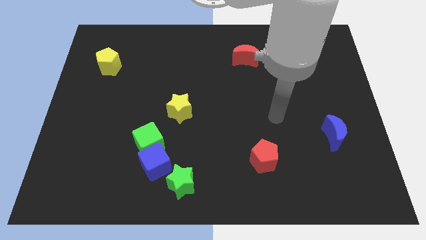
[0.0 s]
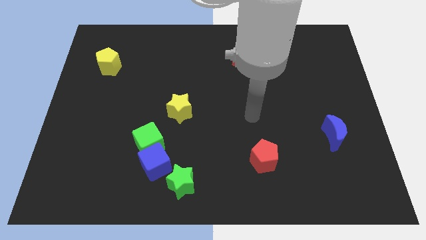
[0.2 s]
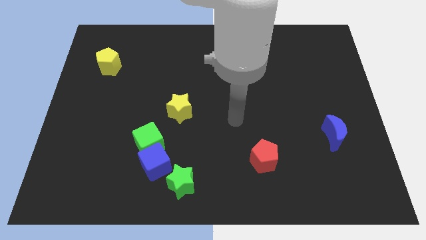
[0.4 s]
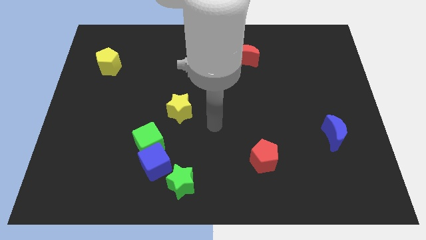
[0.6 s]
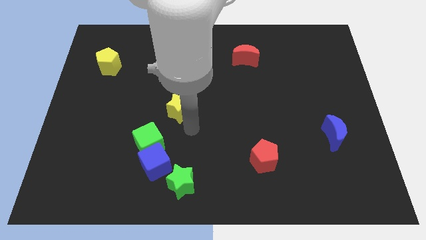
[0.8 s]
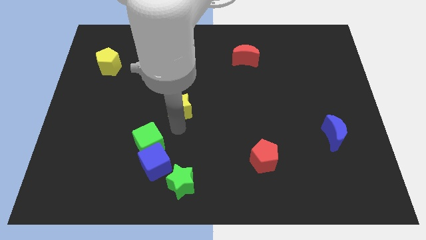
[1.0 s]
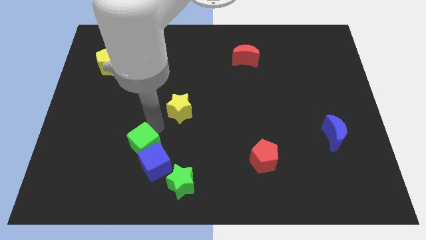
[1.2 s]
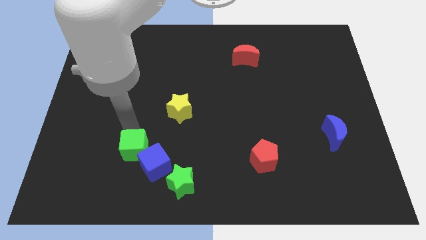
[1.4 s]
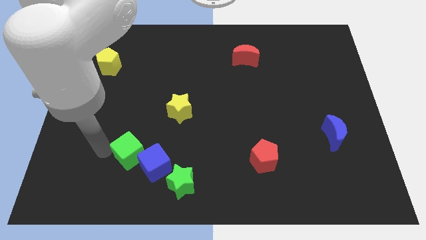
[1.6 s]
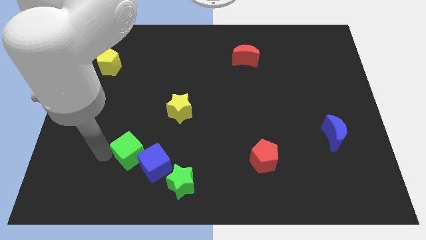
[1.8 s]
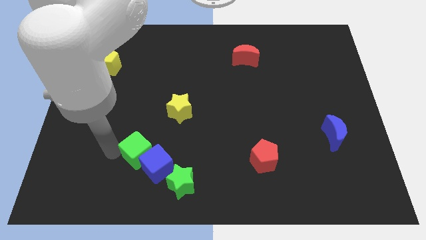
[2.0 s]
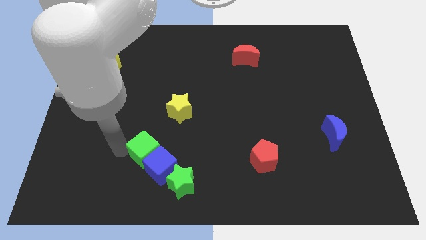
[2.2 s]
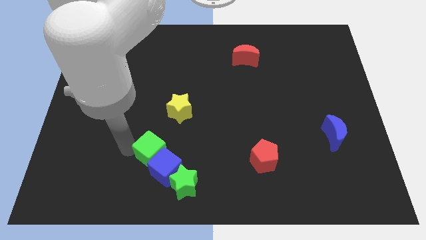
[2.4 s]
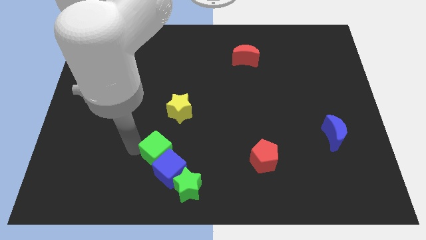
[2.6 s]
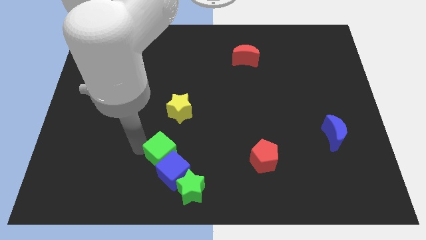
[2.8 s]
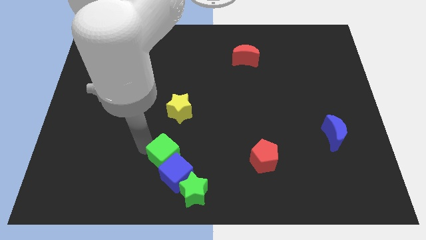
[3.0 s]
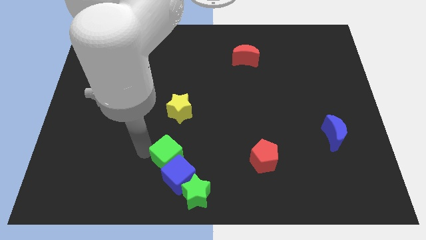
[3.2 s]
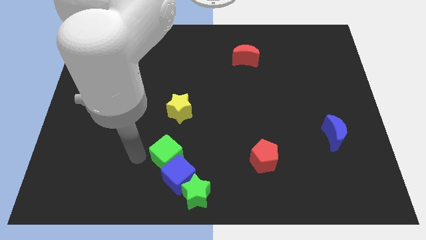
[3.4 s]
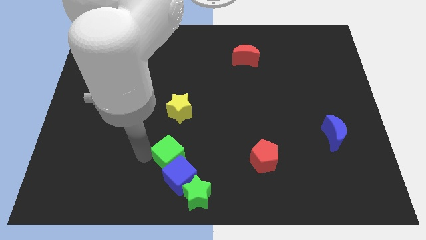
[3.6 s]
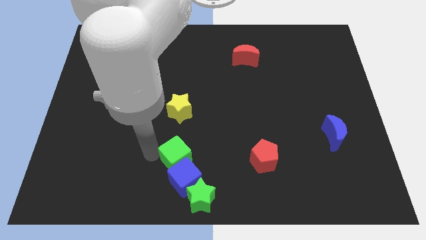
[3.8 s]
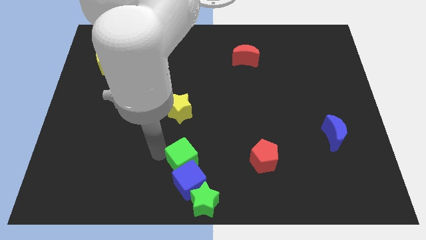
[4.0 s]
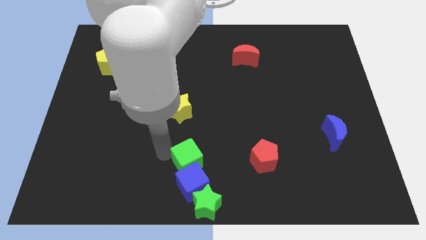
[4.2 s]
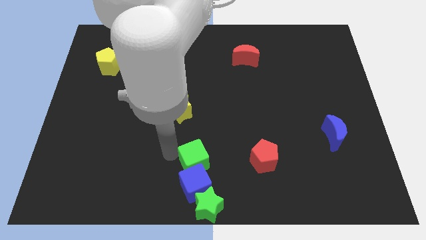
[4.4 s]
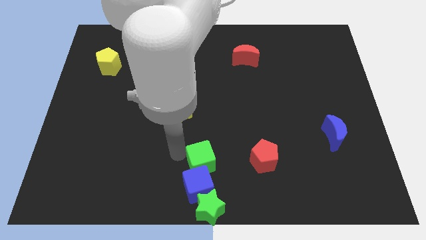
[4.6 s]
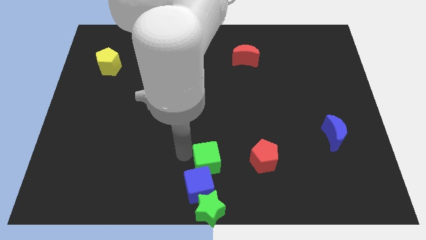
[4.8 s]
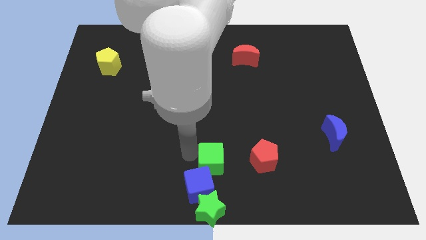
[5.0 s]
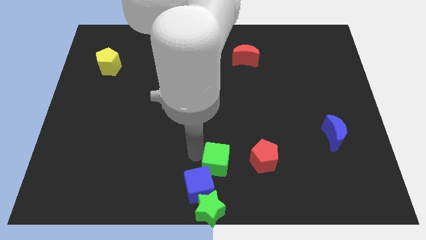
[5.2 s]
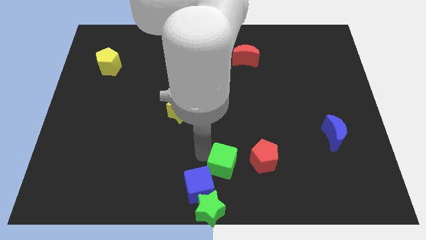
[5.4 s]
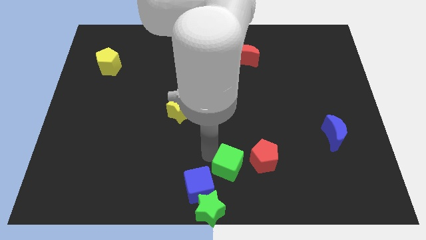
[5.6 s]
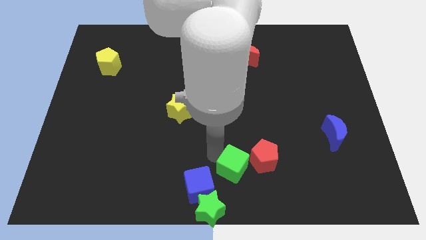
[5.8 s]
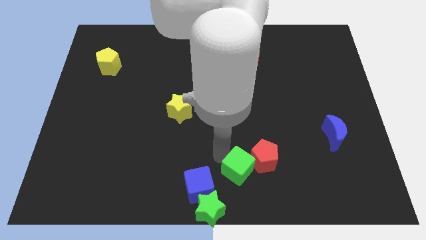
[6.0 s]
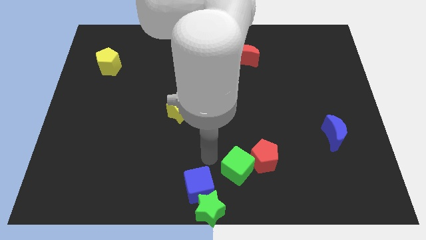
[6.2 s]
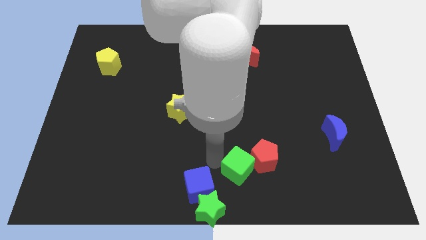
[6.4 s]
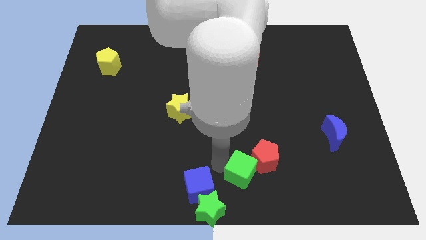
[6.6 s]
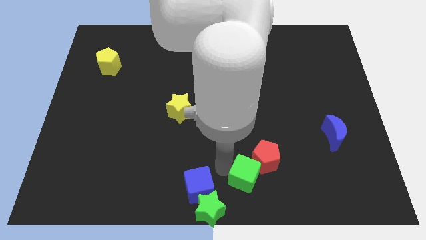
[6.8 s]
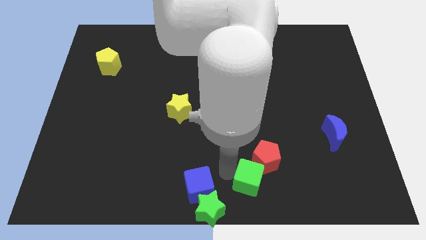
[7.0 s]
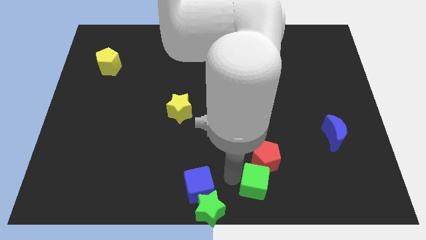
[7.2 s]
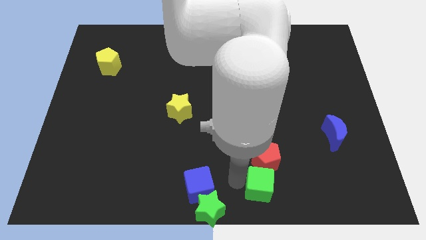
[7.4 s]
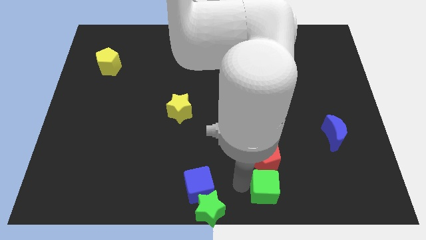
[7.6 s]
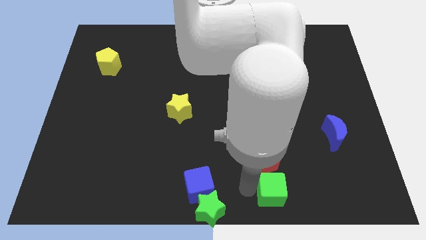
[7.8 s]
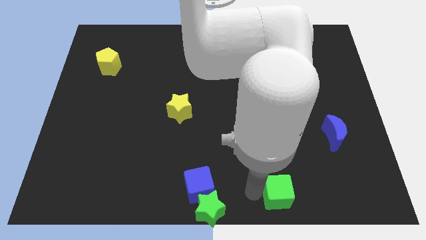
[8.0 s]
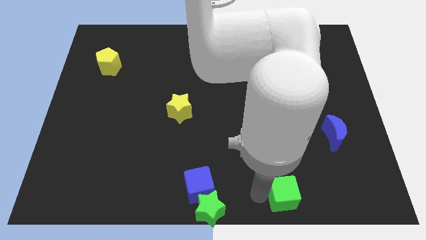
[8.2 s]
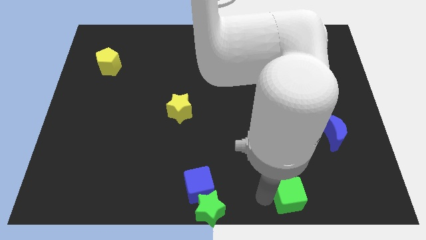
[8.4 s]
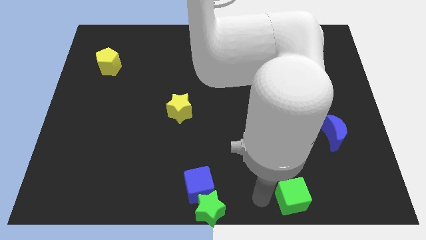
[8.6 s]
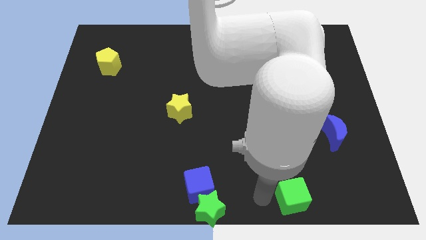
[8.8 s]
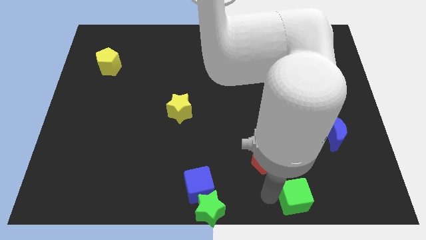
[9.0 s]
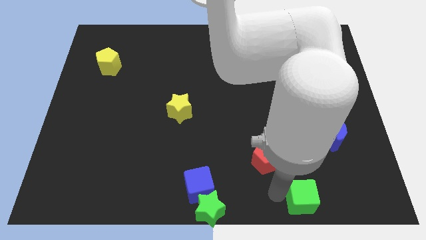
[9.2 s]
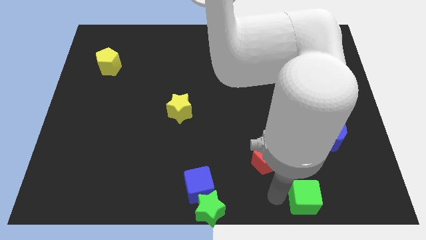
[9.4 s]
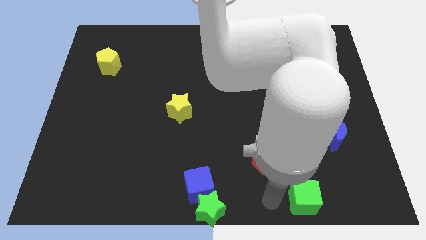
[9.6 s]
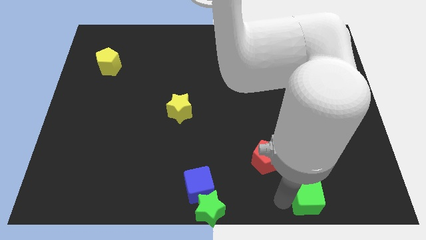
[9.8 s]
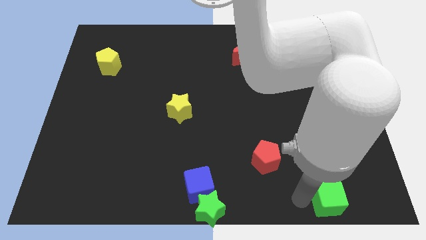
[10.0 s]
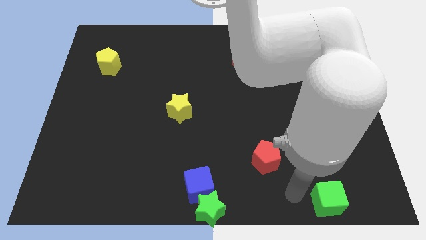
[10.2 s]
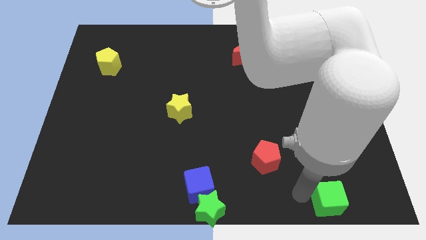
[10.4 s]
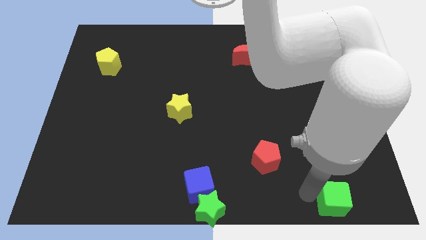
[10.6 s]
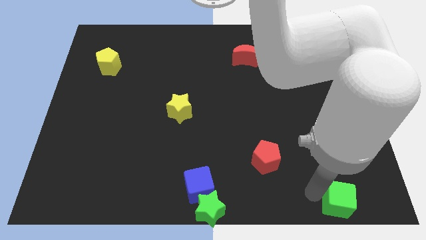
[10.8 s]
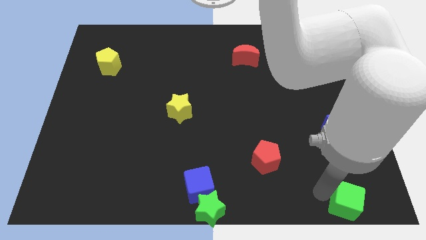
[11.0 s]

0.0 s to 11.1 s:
put the green cube to the bottom right corner

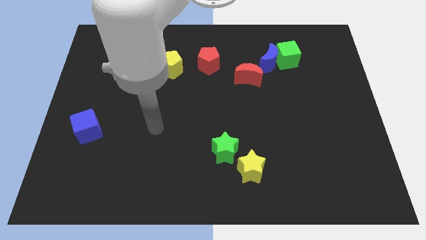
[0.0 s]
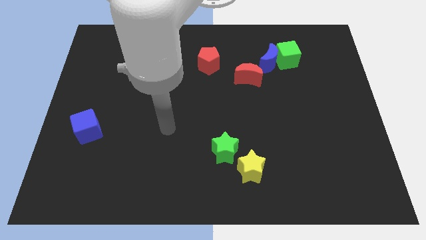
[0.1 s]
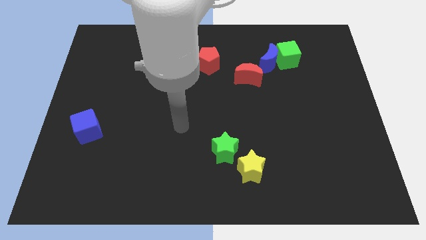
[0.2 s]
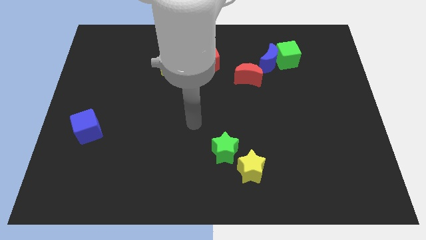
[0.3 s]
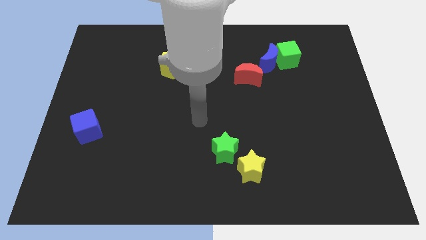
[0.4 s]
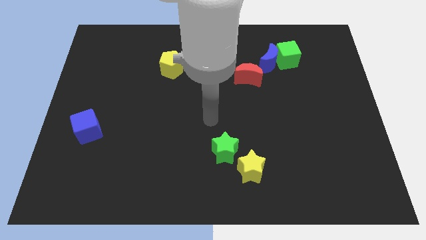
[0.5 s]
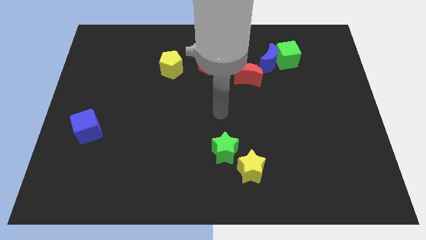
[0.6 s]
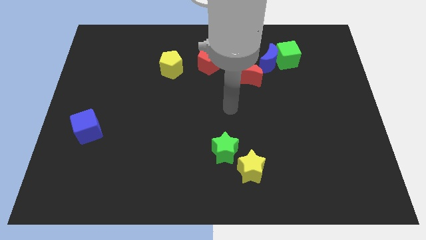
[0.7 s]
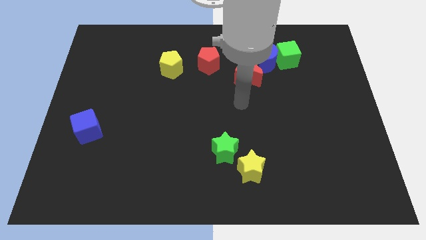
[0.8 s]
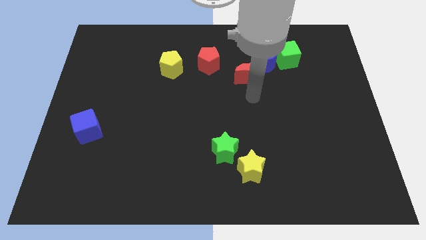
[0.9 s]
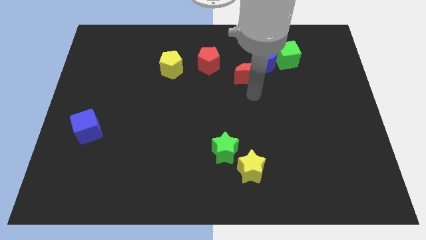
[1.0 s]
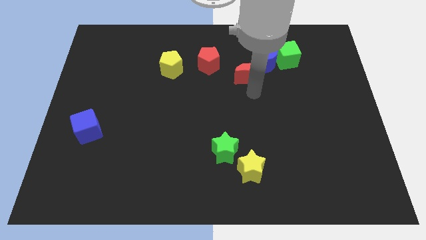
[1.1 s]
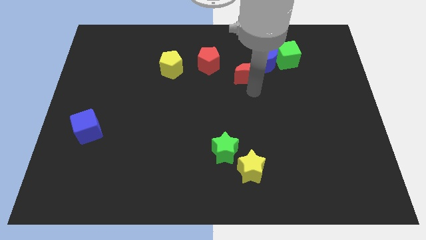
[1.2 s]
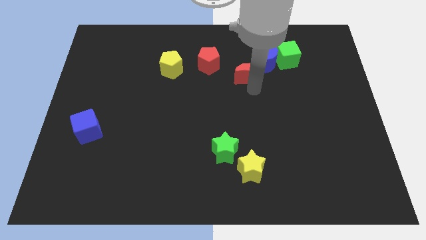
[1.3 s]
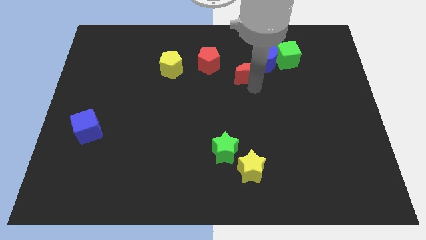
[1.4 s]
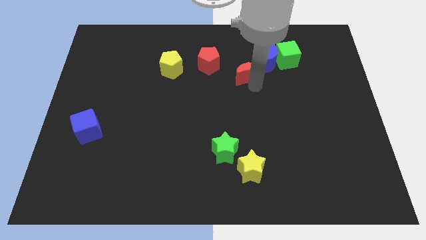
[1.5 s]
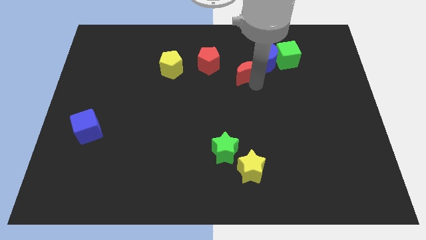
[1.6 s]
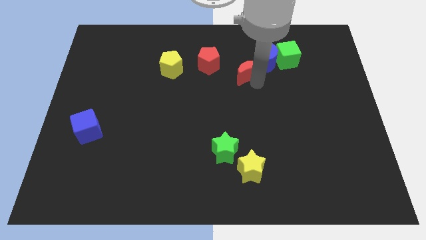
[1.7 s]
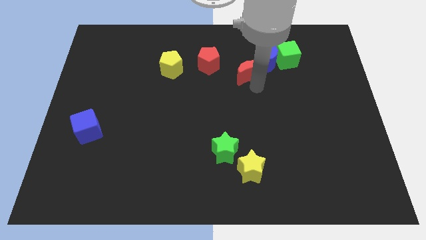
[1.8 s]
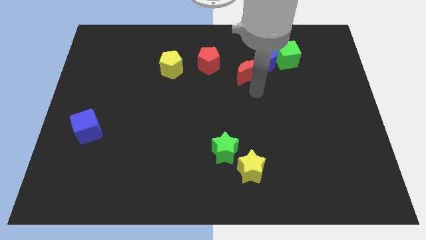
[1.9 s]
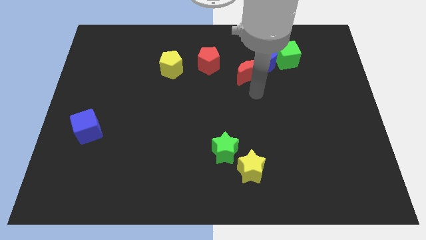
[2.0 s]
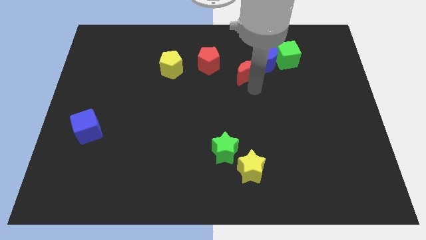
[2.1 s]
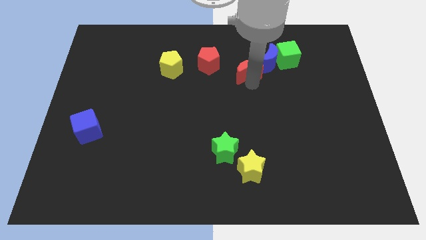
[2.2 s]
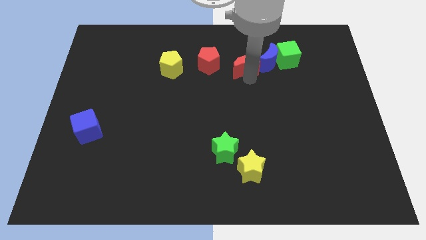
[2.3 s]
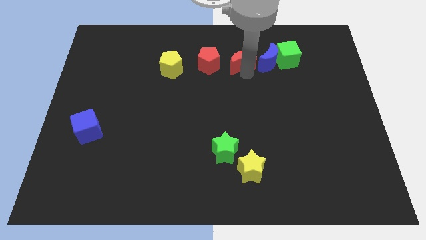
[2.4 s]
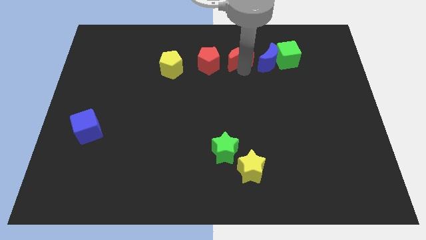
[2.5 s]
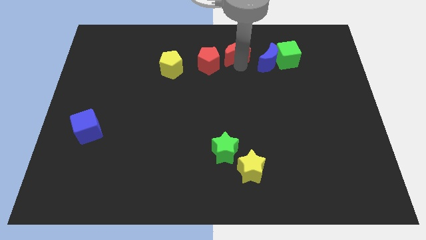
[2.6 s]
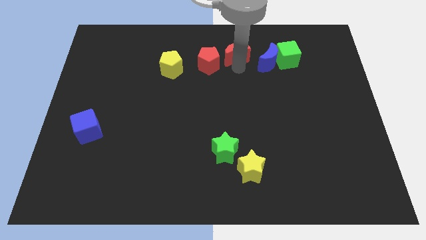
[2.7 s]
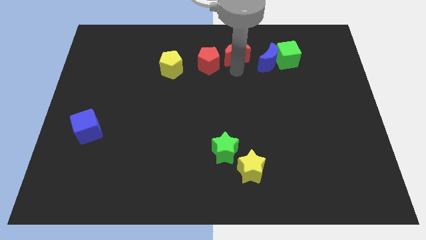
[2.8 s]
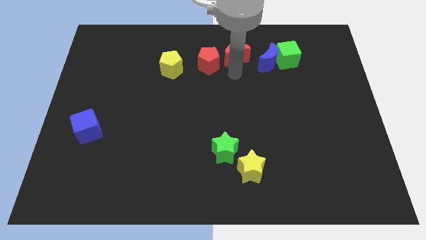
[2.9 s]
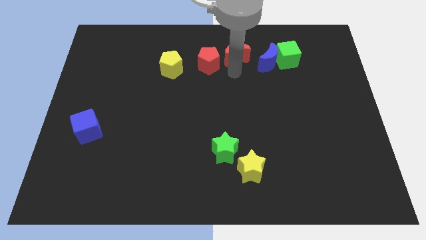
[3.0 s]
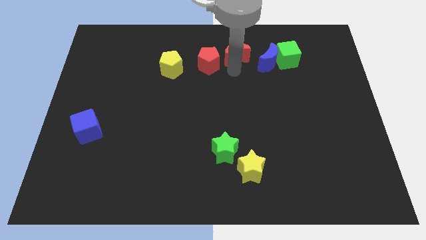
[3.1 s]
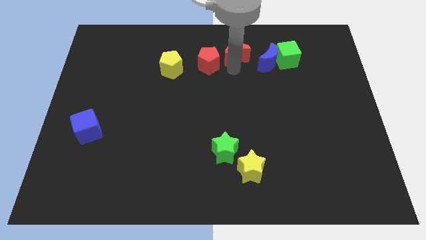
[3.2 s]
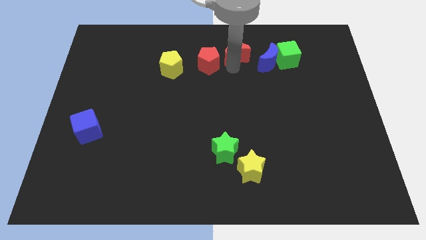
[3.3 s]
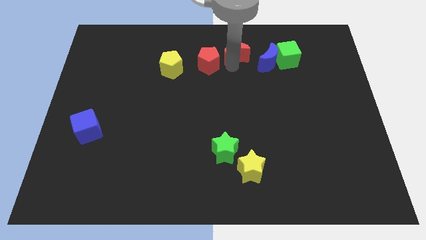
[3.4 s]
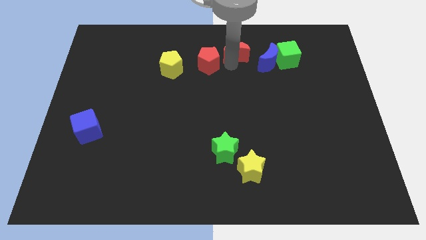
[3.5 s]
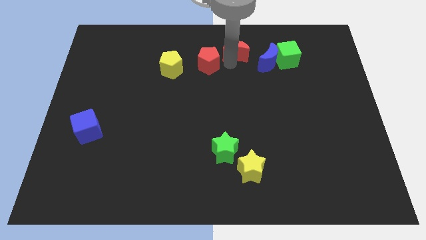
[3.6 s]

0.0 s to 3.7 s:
put the red moon to the towards your base
